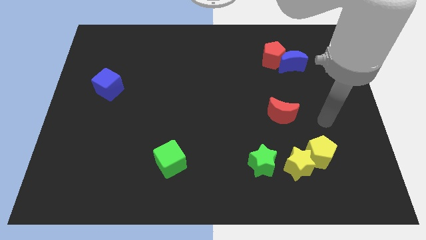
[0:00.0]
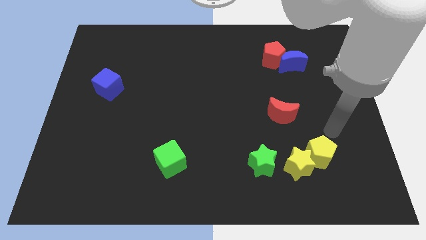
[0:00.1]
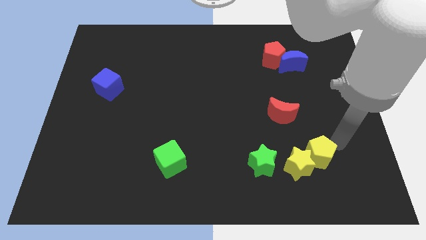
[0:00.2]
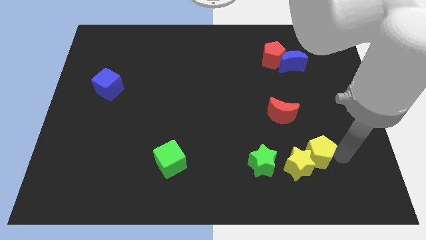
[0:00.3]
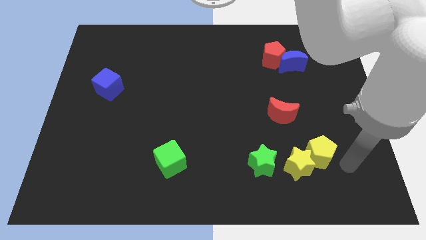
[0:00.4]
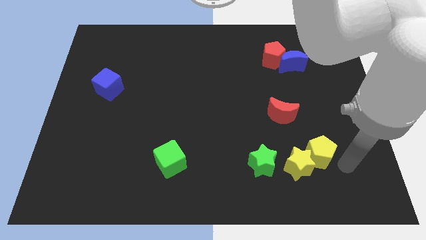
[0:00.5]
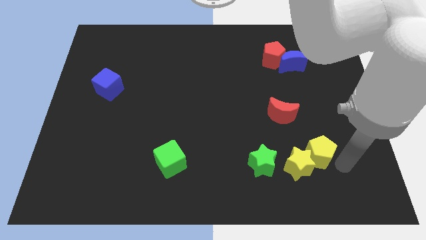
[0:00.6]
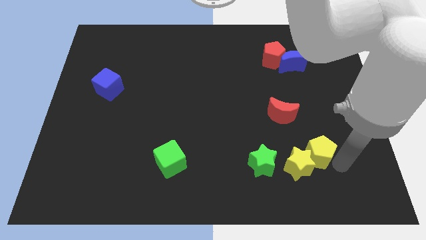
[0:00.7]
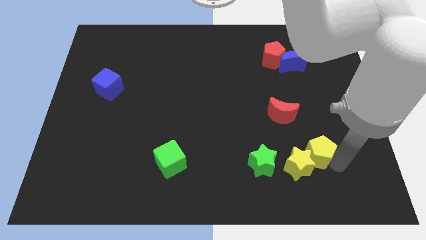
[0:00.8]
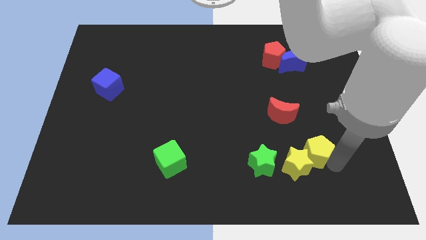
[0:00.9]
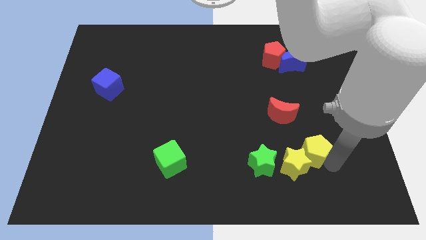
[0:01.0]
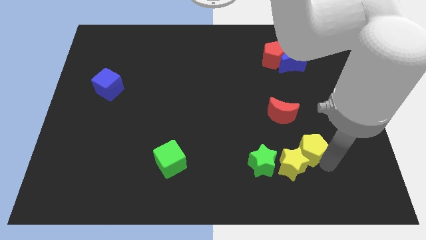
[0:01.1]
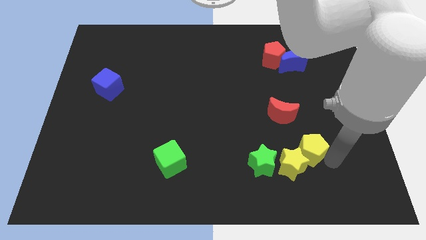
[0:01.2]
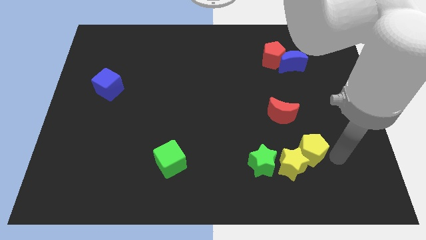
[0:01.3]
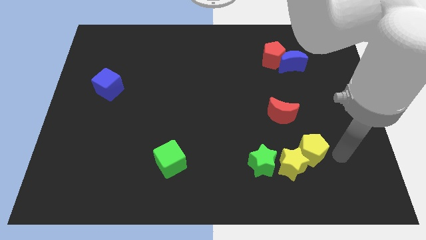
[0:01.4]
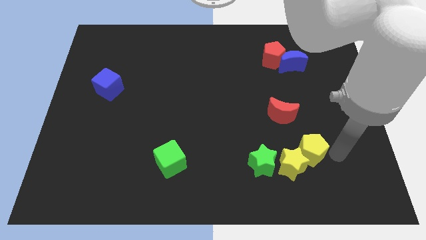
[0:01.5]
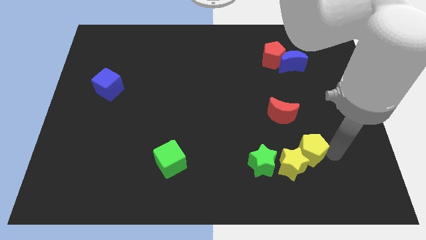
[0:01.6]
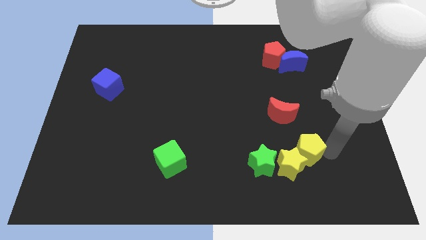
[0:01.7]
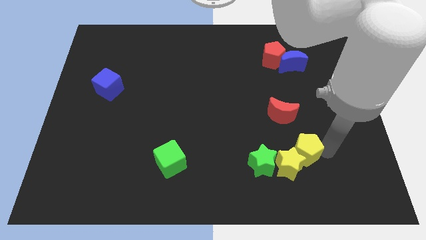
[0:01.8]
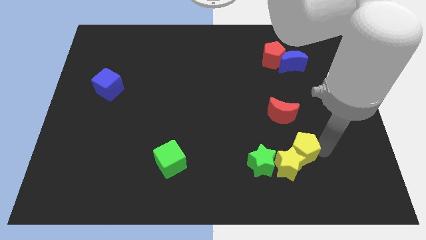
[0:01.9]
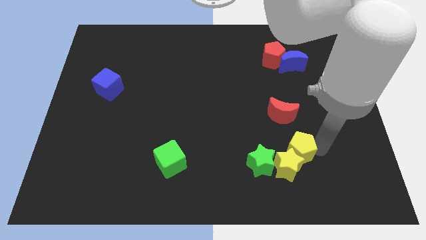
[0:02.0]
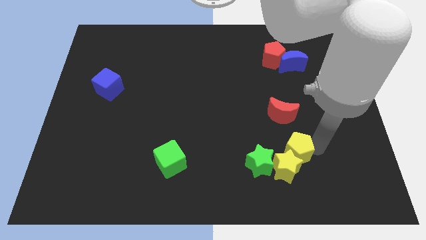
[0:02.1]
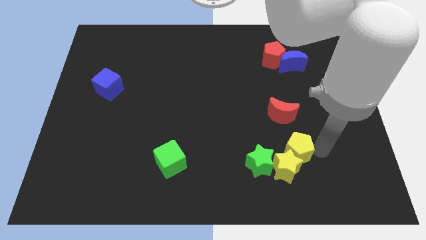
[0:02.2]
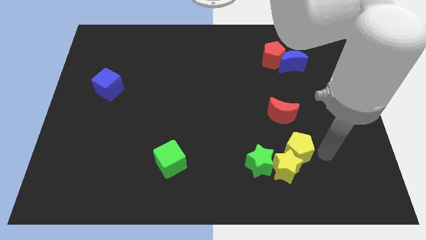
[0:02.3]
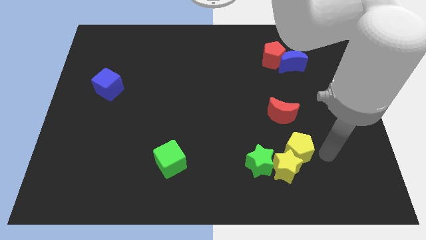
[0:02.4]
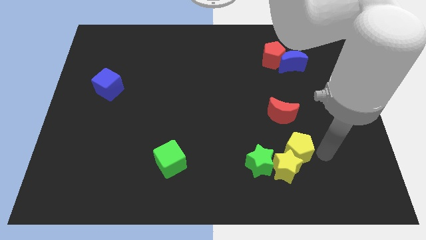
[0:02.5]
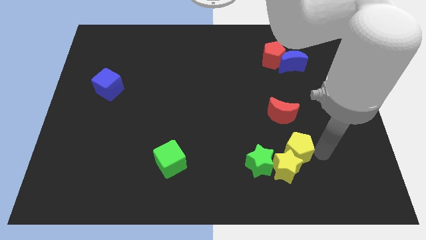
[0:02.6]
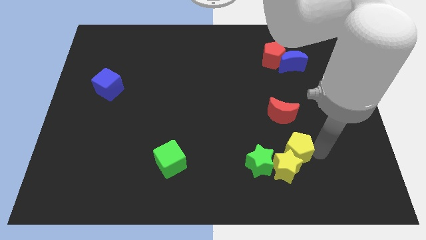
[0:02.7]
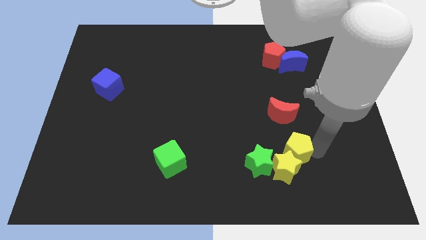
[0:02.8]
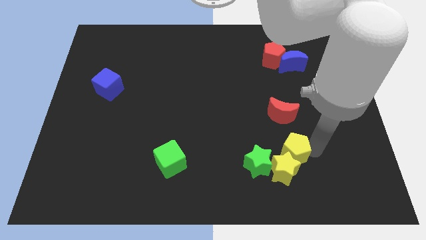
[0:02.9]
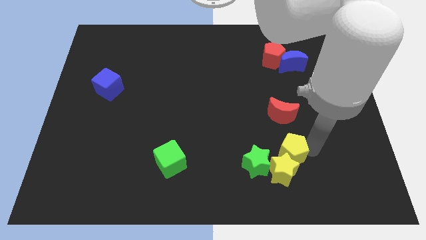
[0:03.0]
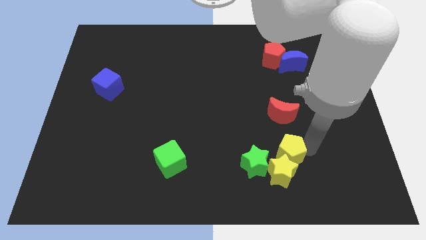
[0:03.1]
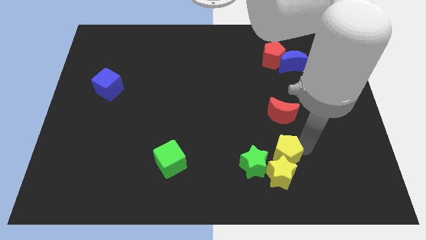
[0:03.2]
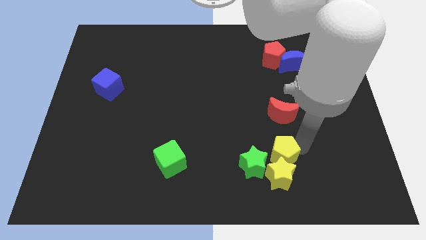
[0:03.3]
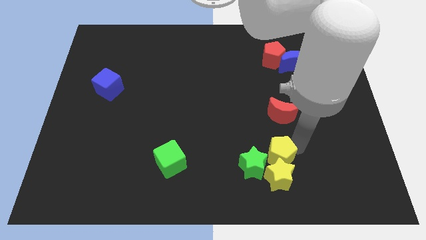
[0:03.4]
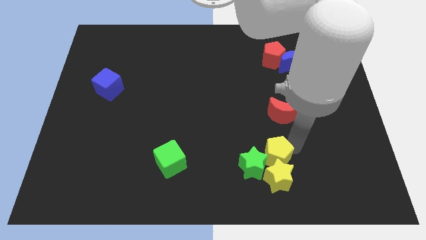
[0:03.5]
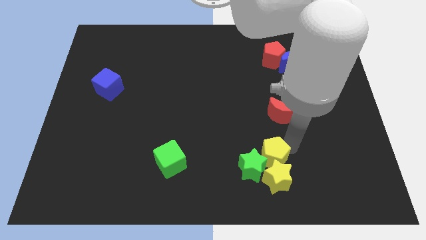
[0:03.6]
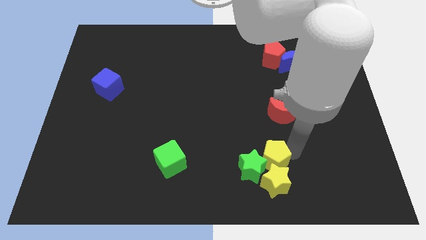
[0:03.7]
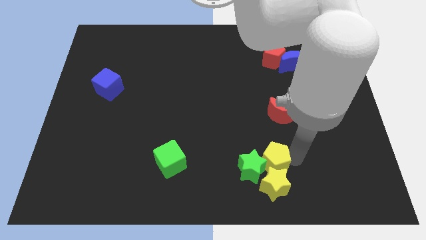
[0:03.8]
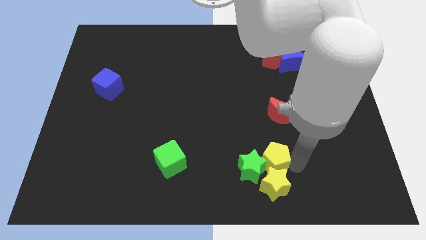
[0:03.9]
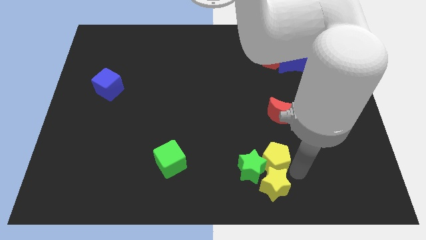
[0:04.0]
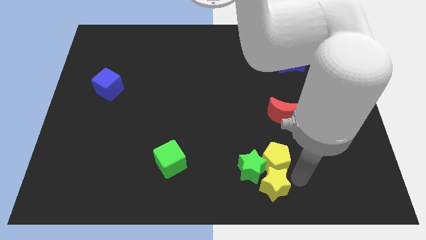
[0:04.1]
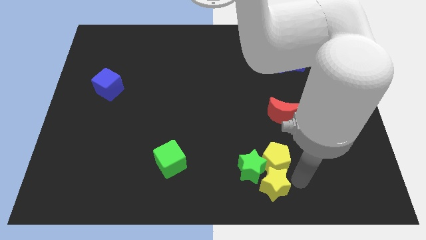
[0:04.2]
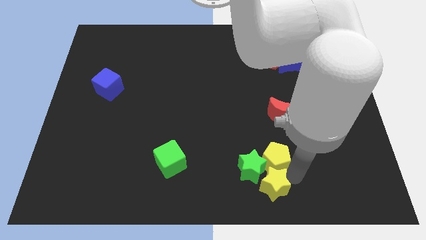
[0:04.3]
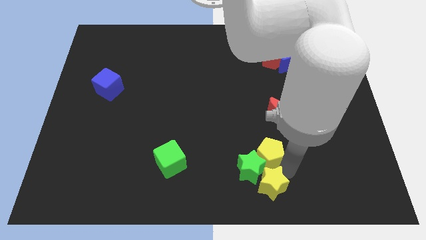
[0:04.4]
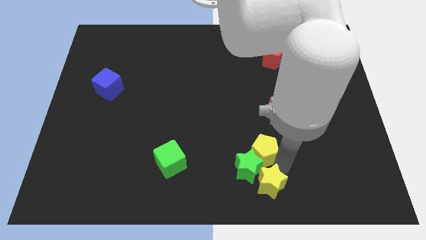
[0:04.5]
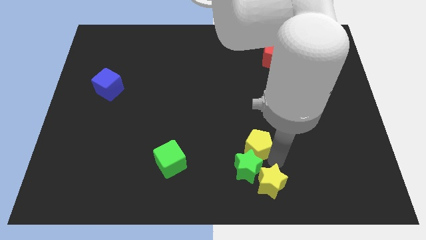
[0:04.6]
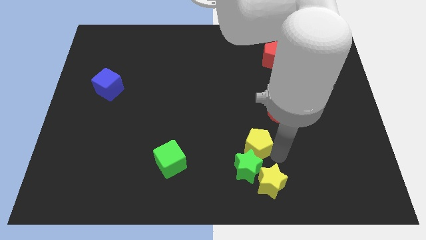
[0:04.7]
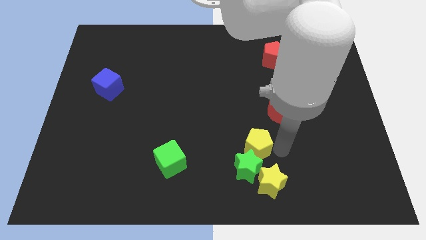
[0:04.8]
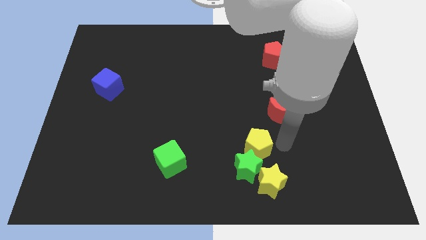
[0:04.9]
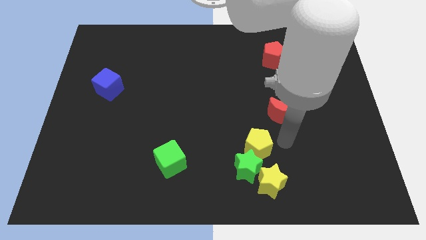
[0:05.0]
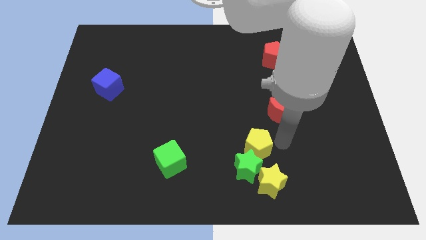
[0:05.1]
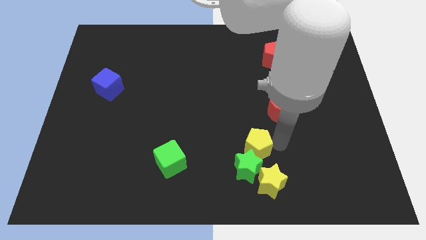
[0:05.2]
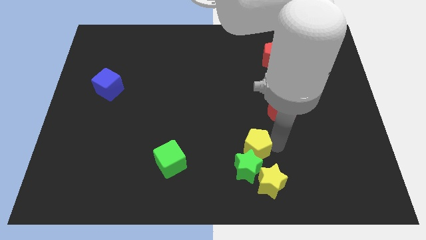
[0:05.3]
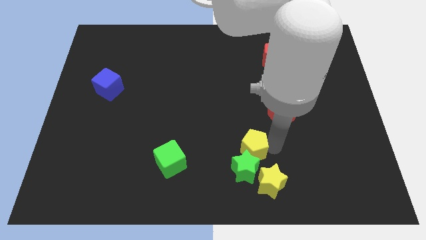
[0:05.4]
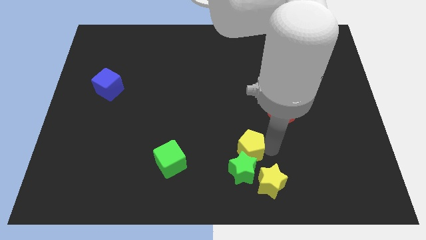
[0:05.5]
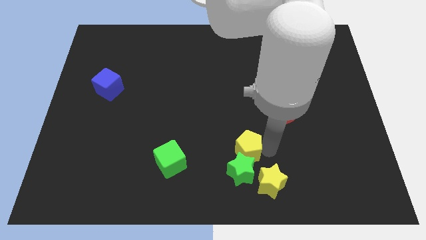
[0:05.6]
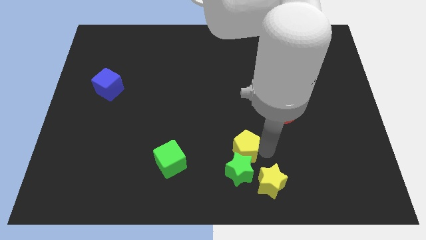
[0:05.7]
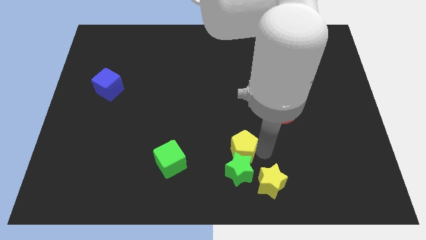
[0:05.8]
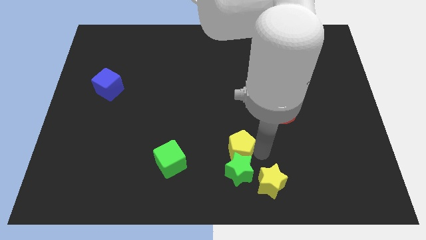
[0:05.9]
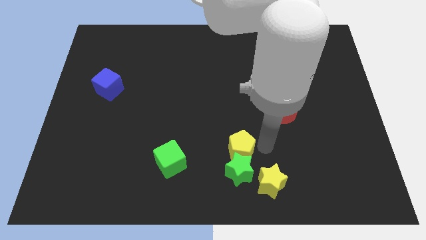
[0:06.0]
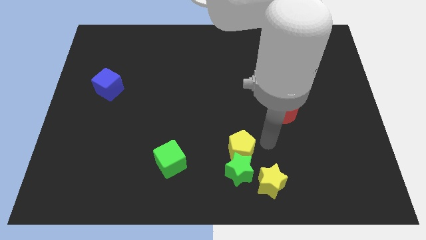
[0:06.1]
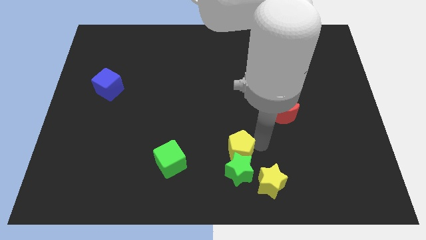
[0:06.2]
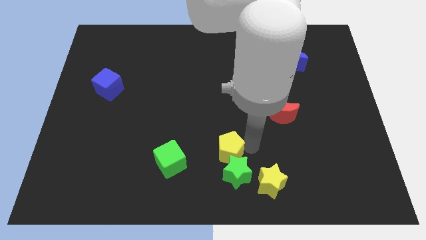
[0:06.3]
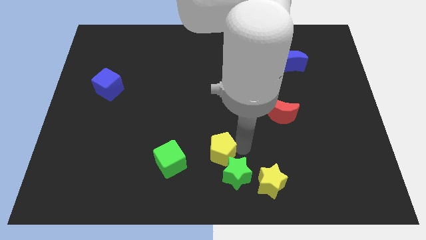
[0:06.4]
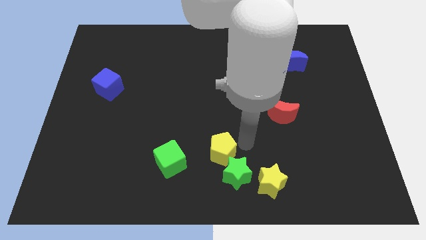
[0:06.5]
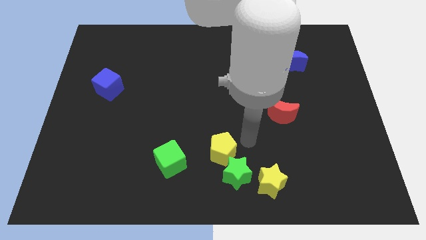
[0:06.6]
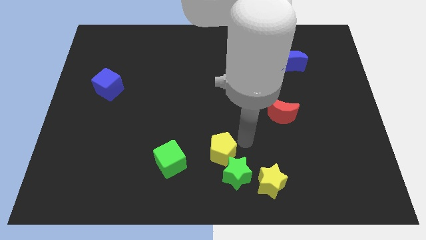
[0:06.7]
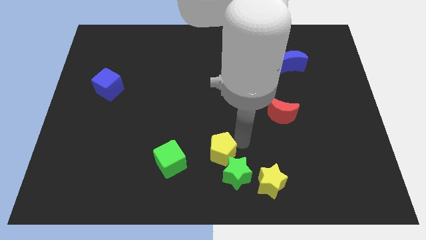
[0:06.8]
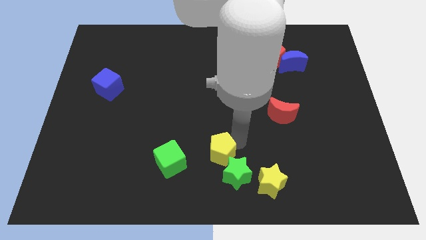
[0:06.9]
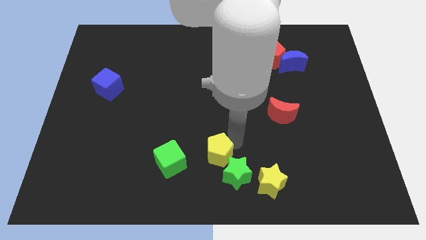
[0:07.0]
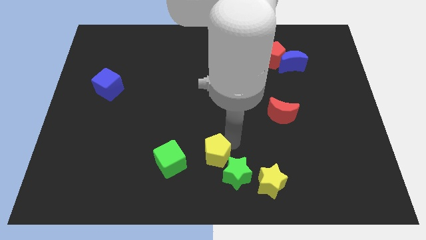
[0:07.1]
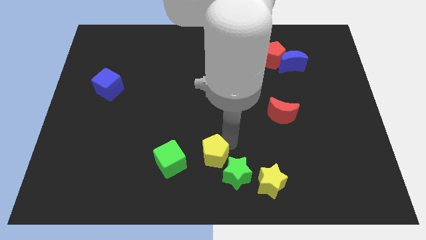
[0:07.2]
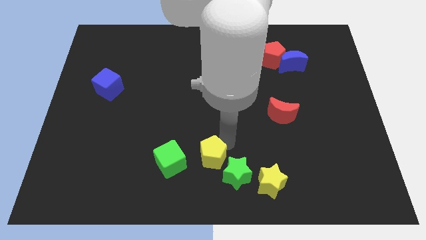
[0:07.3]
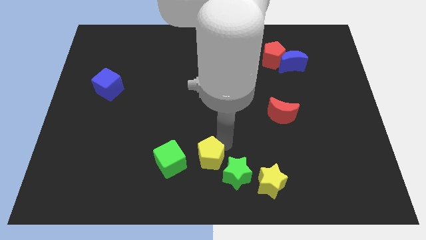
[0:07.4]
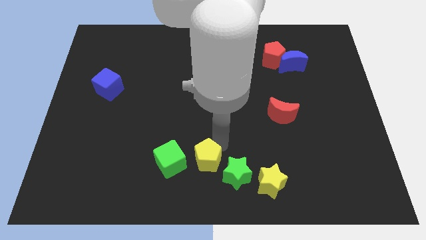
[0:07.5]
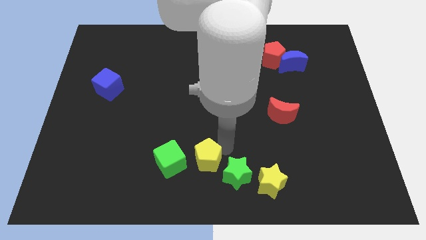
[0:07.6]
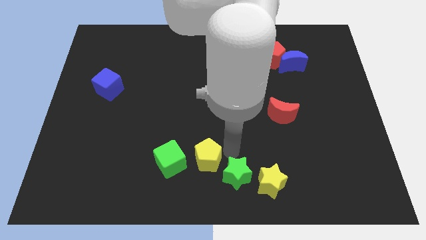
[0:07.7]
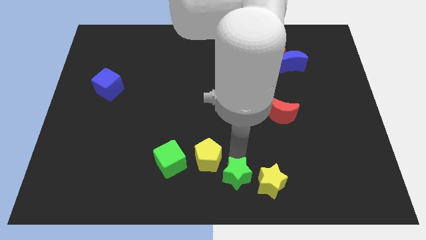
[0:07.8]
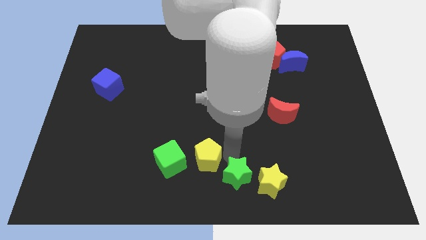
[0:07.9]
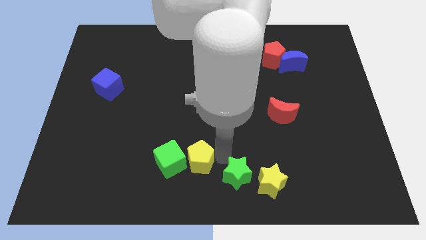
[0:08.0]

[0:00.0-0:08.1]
move the yellow pentagon to the green cube
